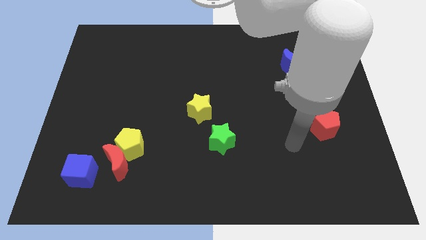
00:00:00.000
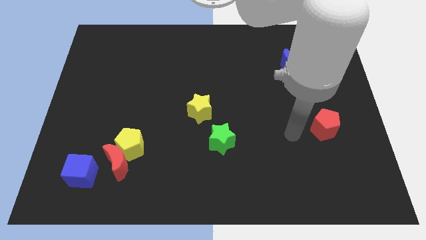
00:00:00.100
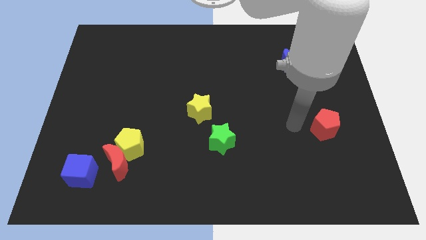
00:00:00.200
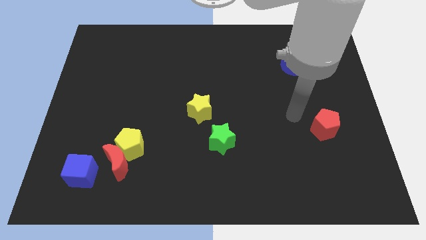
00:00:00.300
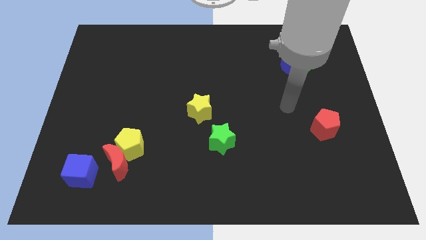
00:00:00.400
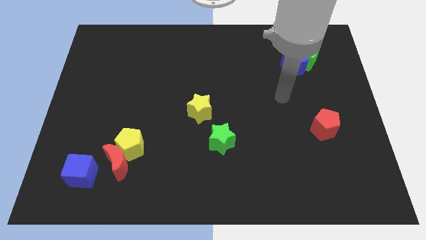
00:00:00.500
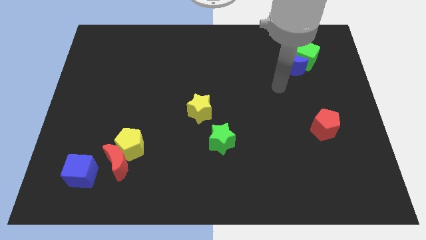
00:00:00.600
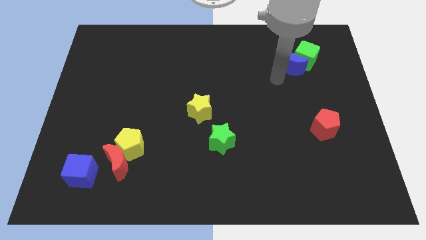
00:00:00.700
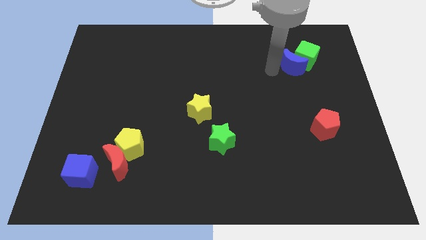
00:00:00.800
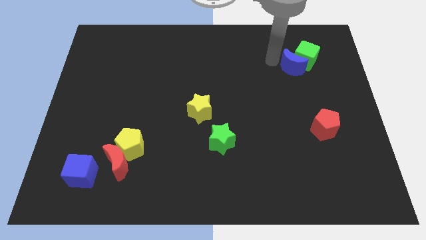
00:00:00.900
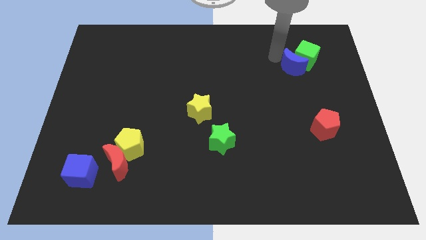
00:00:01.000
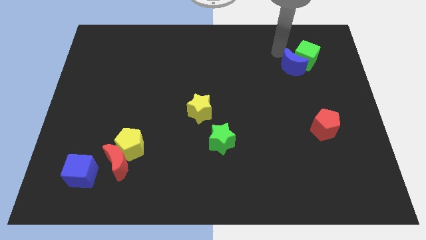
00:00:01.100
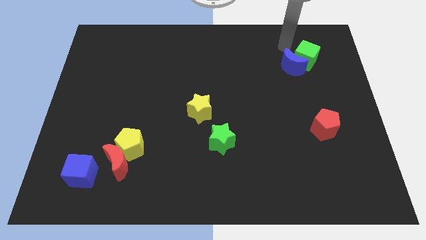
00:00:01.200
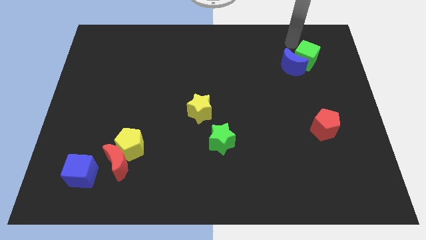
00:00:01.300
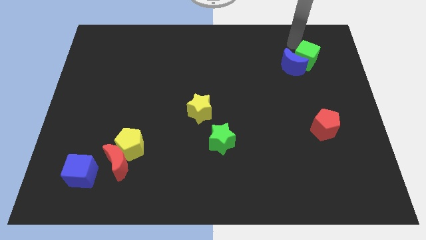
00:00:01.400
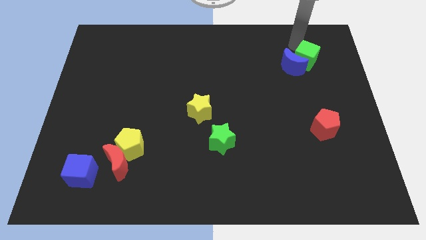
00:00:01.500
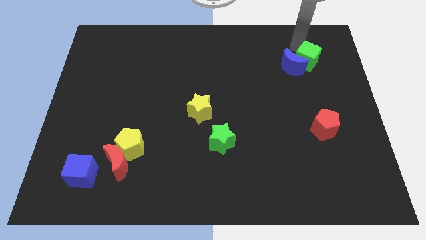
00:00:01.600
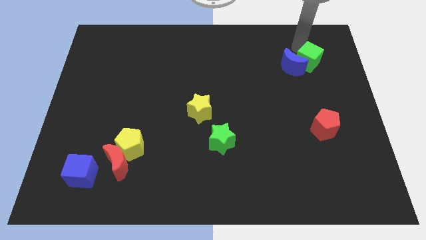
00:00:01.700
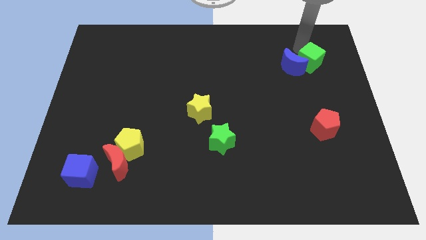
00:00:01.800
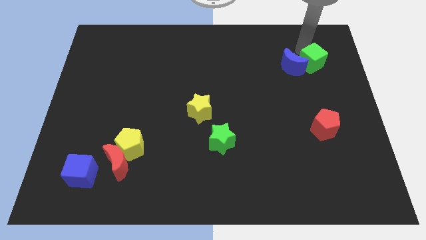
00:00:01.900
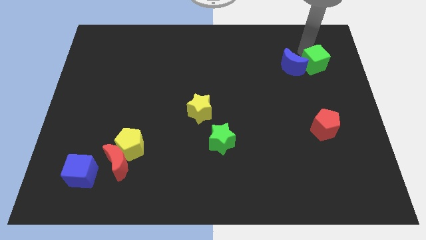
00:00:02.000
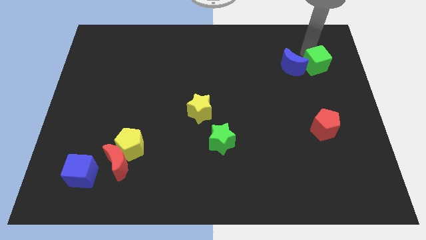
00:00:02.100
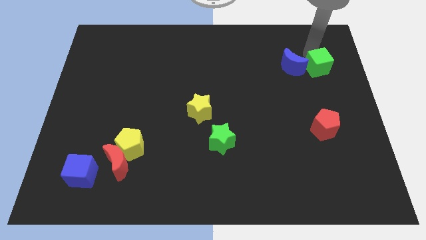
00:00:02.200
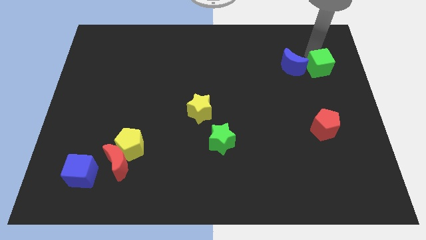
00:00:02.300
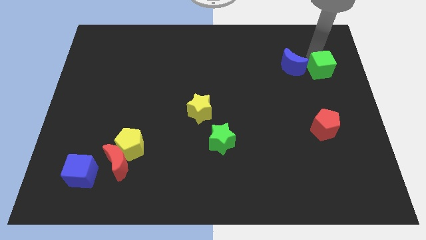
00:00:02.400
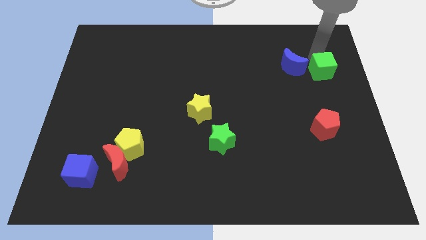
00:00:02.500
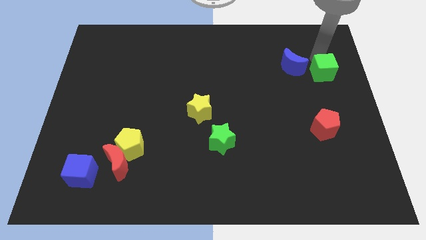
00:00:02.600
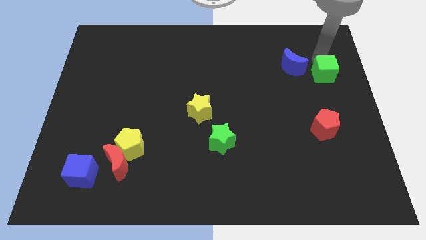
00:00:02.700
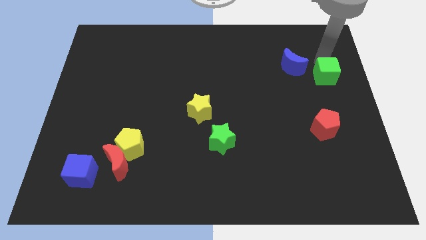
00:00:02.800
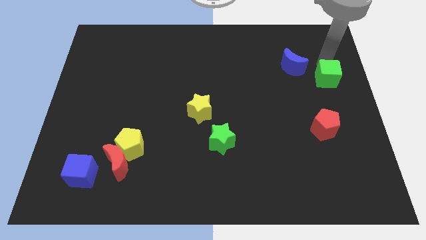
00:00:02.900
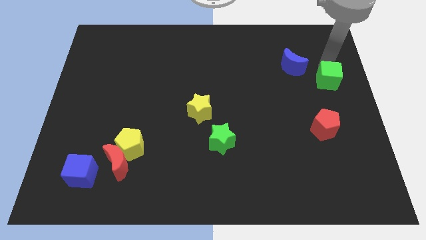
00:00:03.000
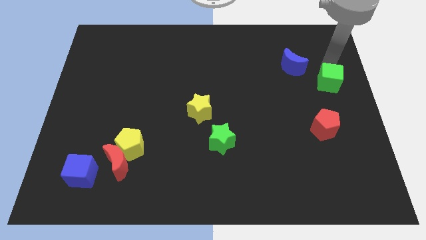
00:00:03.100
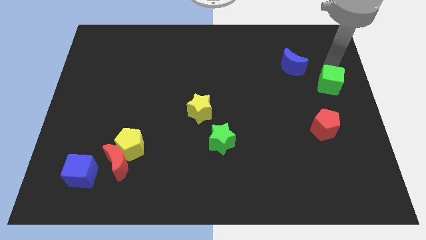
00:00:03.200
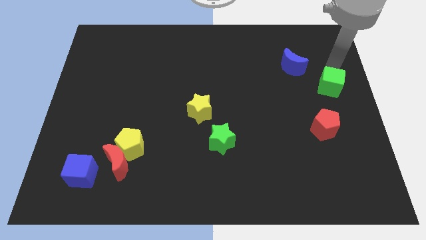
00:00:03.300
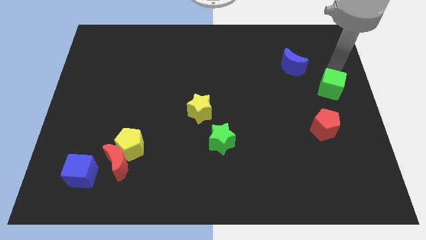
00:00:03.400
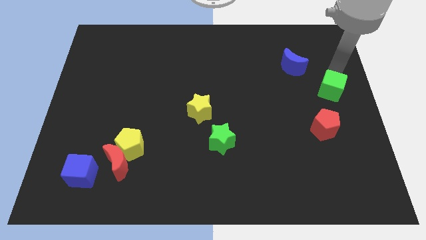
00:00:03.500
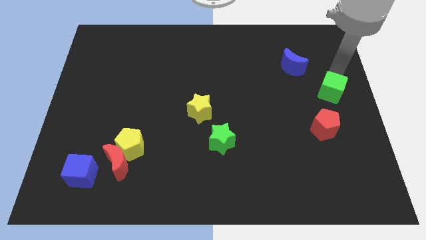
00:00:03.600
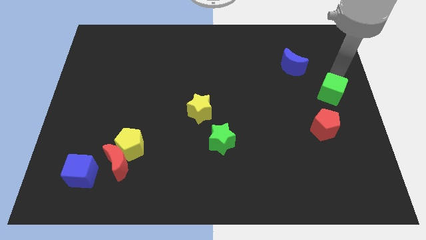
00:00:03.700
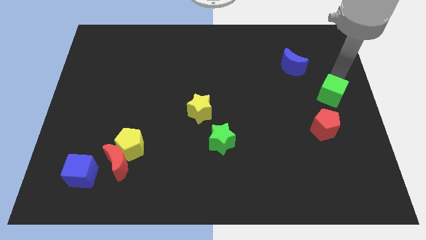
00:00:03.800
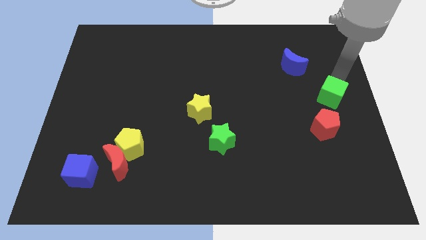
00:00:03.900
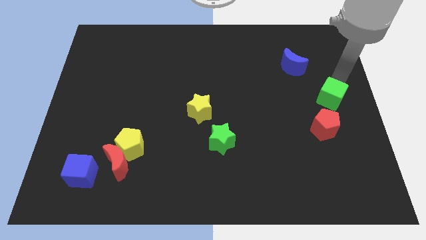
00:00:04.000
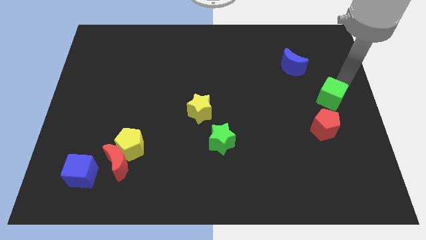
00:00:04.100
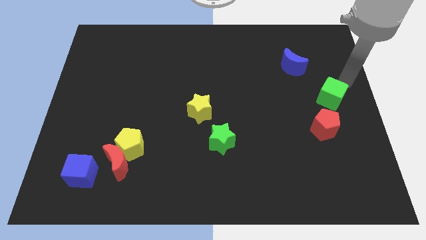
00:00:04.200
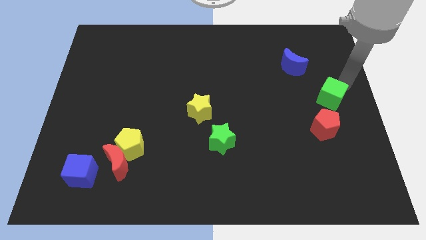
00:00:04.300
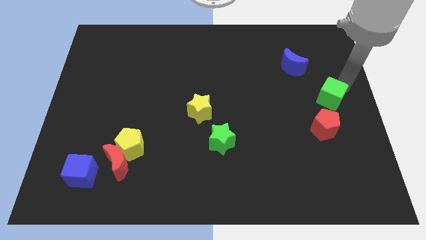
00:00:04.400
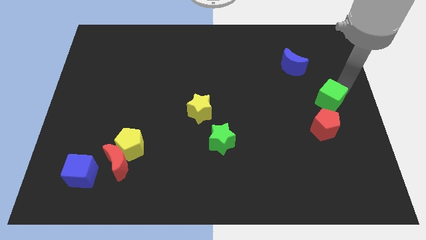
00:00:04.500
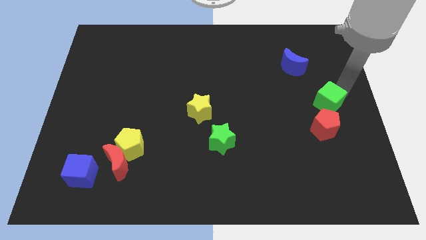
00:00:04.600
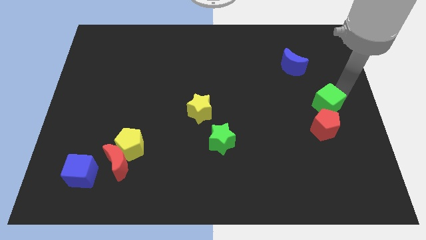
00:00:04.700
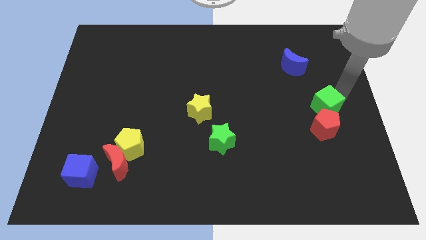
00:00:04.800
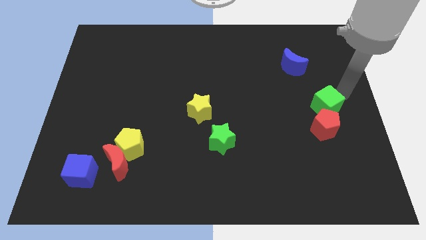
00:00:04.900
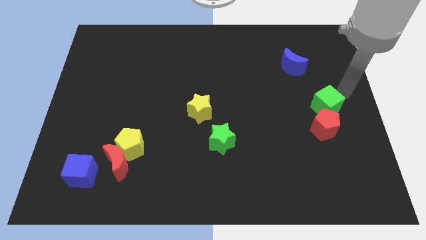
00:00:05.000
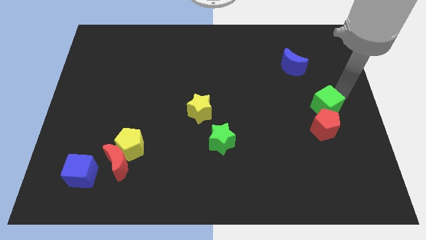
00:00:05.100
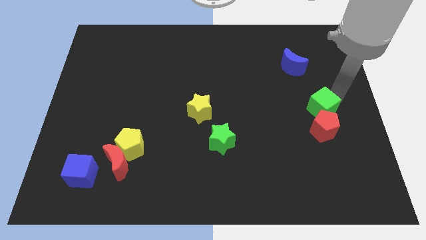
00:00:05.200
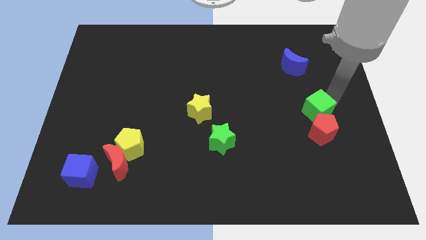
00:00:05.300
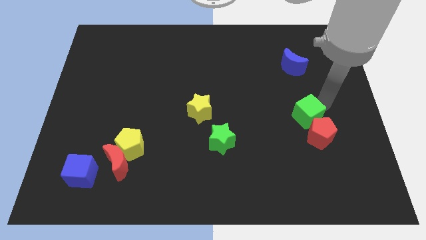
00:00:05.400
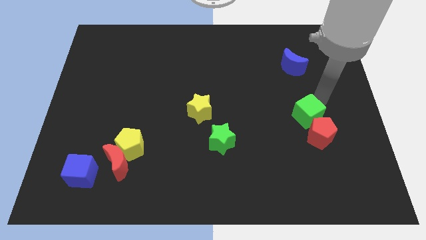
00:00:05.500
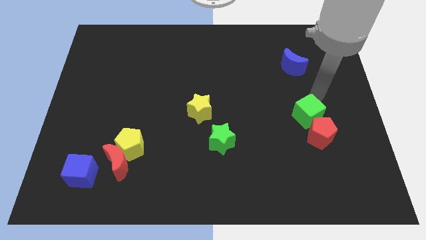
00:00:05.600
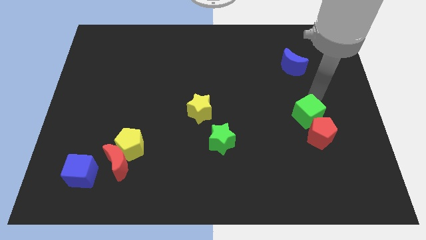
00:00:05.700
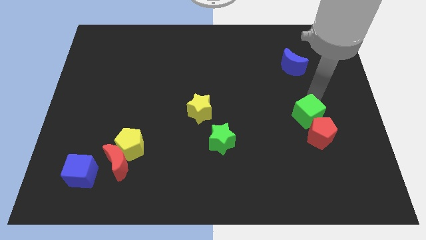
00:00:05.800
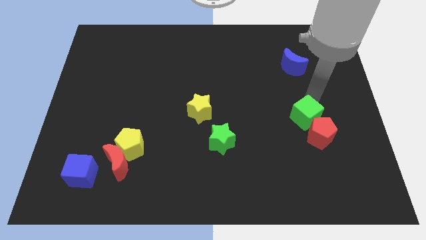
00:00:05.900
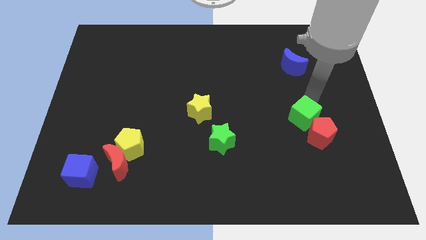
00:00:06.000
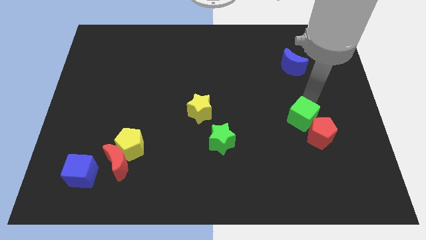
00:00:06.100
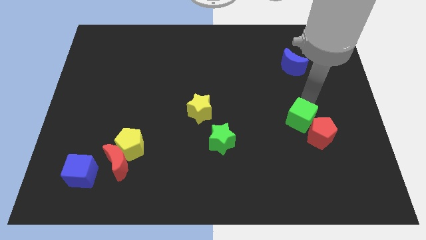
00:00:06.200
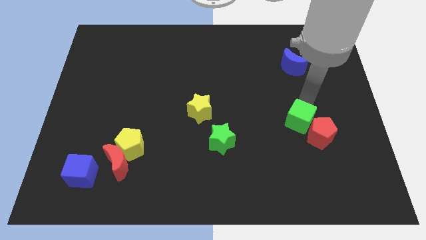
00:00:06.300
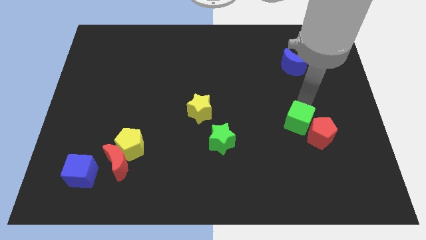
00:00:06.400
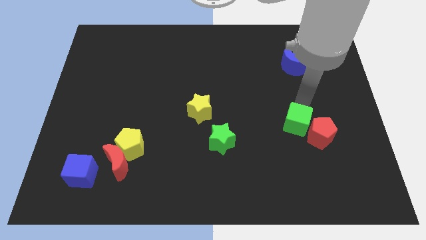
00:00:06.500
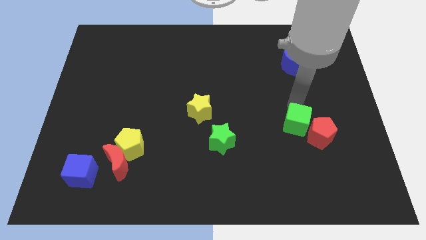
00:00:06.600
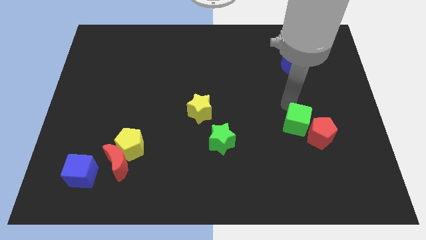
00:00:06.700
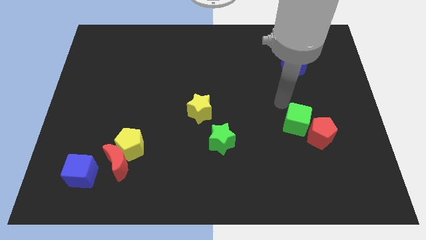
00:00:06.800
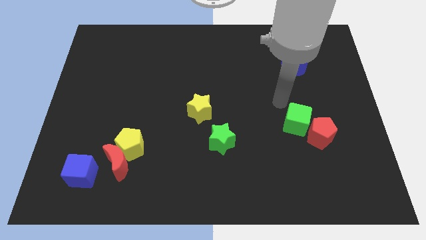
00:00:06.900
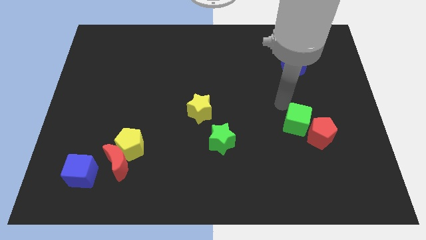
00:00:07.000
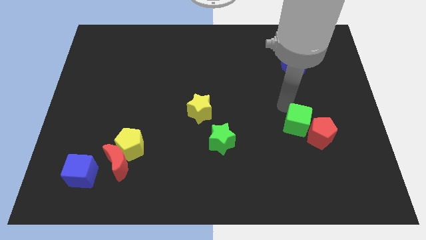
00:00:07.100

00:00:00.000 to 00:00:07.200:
push the green cube downwards

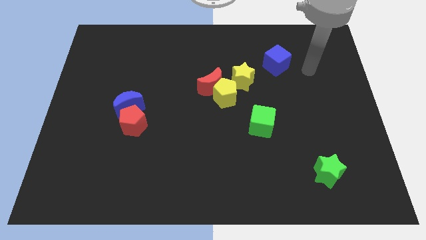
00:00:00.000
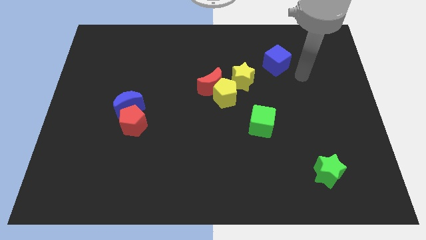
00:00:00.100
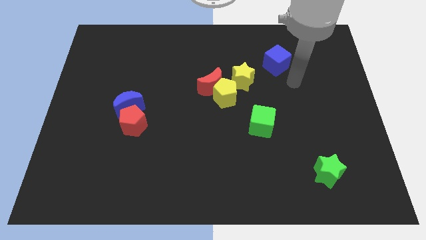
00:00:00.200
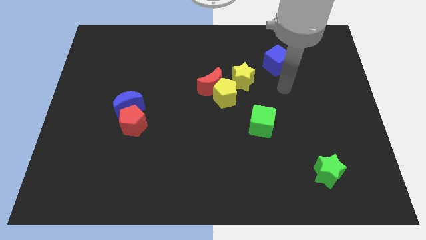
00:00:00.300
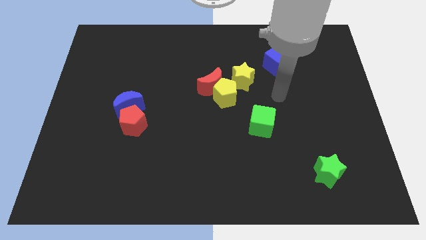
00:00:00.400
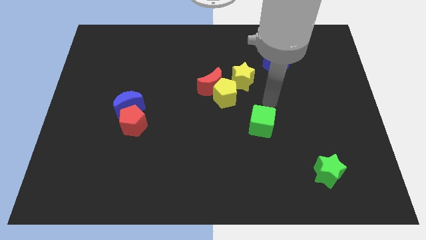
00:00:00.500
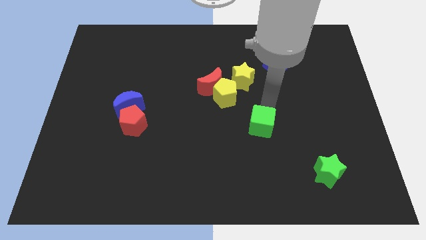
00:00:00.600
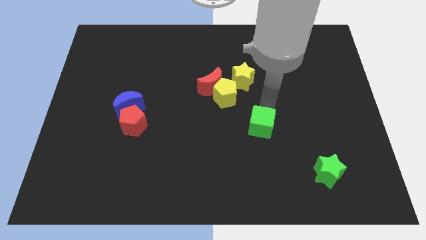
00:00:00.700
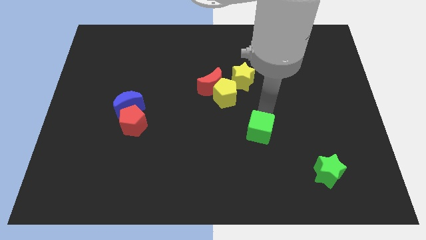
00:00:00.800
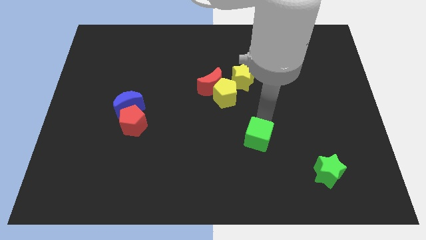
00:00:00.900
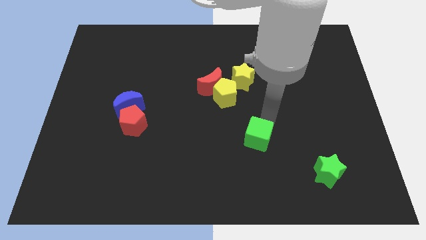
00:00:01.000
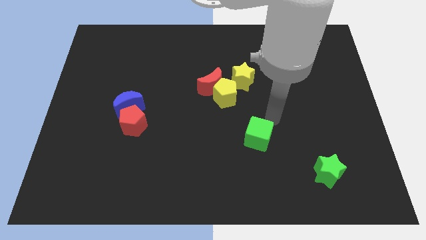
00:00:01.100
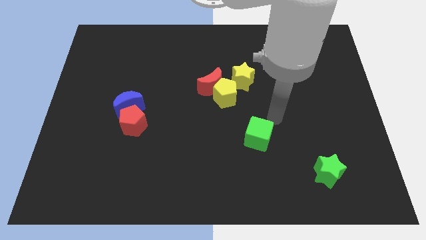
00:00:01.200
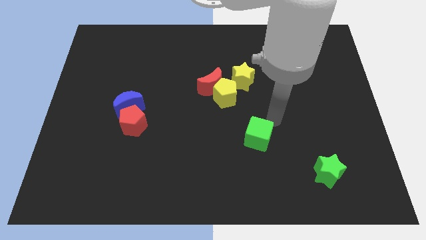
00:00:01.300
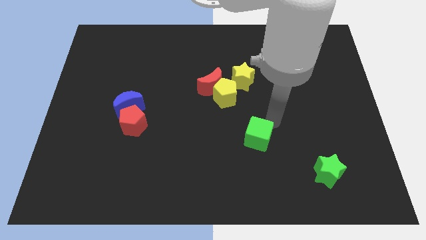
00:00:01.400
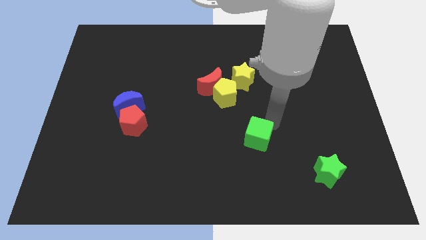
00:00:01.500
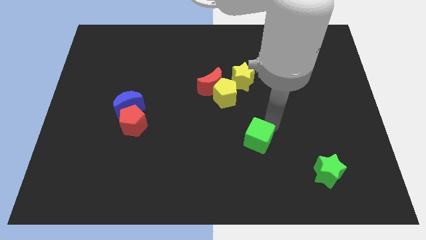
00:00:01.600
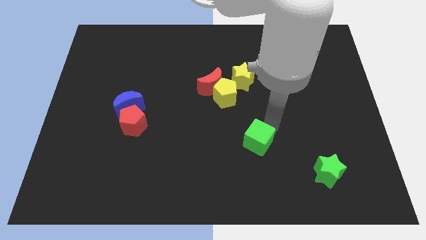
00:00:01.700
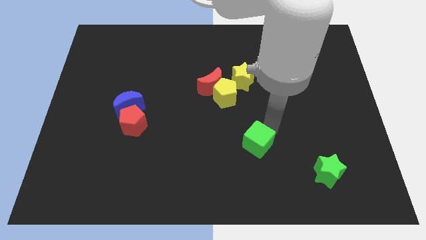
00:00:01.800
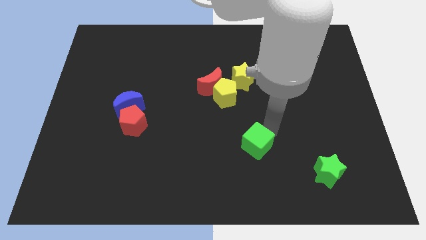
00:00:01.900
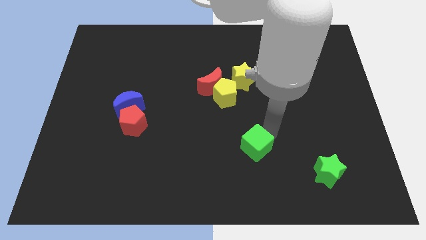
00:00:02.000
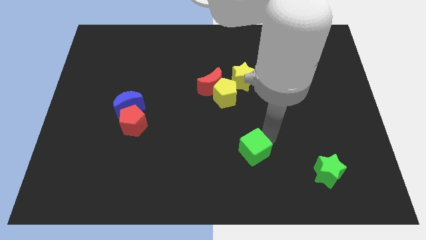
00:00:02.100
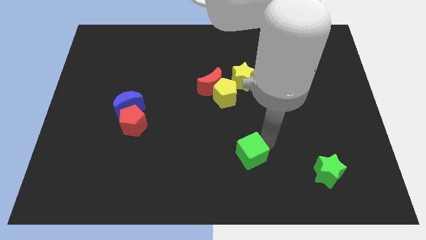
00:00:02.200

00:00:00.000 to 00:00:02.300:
slightly slide the green cube down and left diagonally
